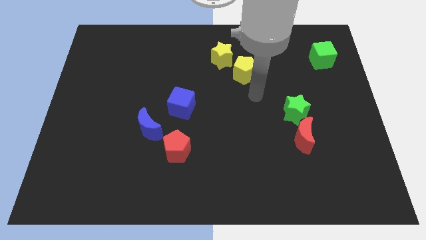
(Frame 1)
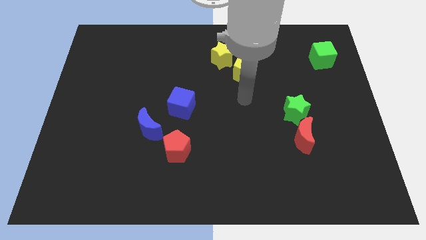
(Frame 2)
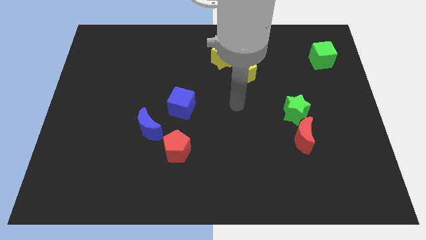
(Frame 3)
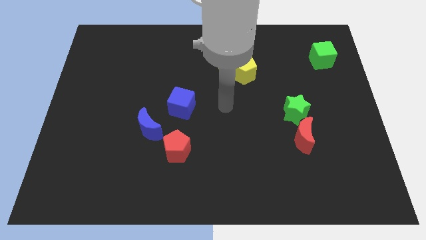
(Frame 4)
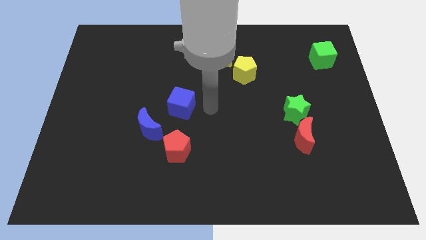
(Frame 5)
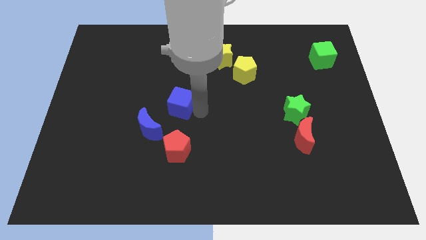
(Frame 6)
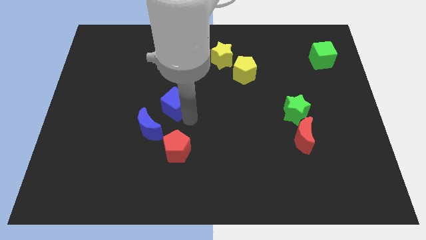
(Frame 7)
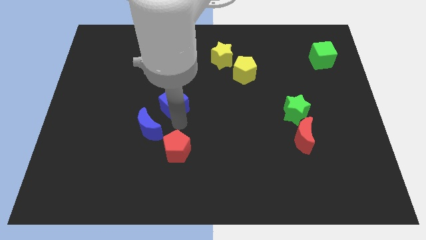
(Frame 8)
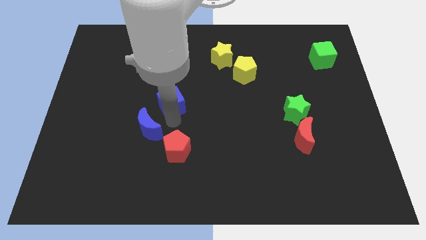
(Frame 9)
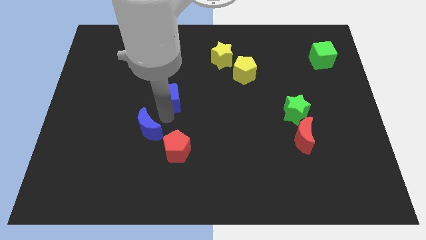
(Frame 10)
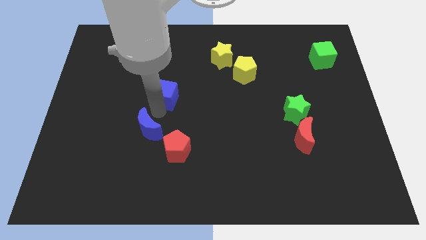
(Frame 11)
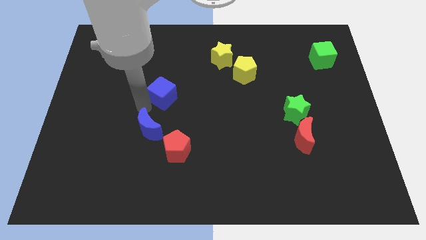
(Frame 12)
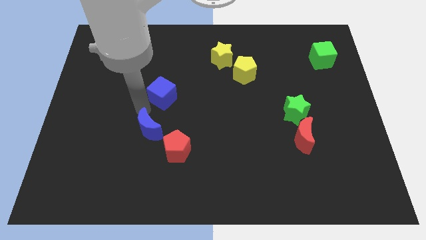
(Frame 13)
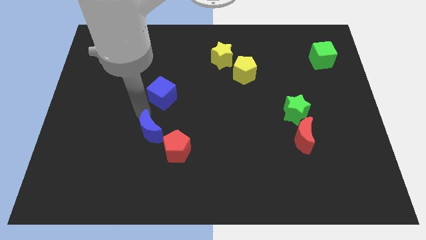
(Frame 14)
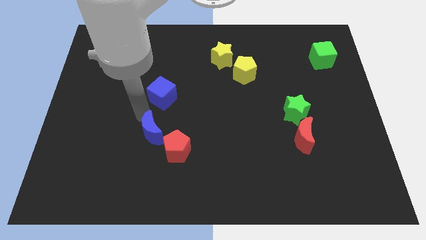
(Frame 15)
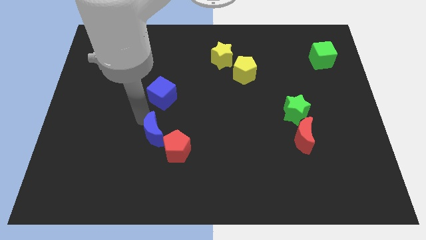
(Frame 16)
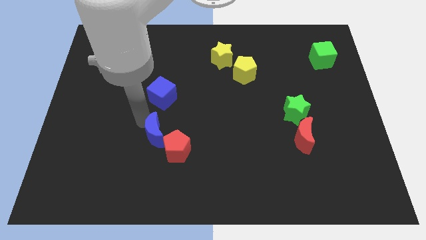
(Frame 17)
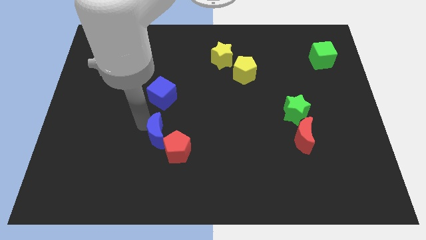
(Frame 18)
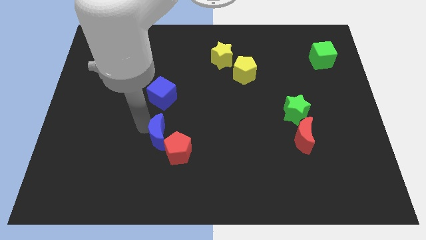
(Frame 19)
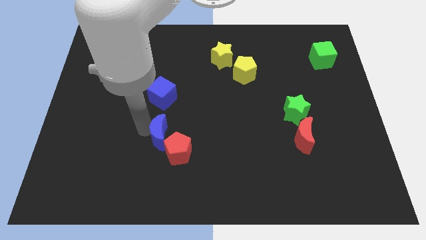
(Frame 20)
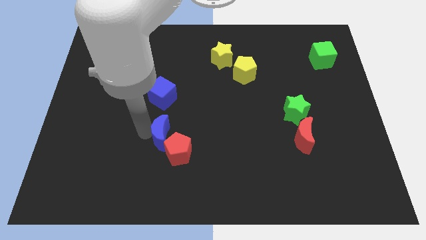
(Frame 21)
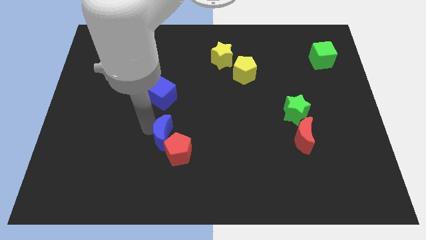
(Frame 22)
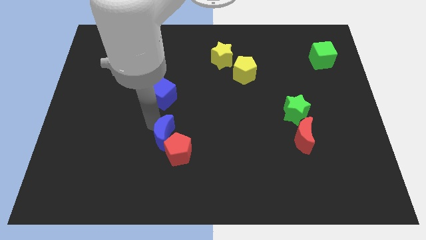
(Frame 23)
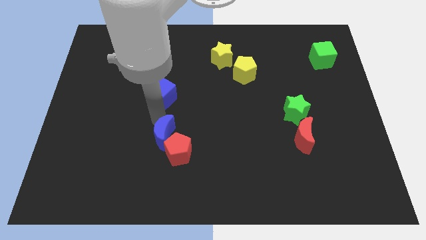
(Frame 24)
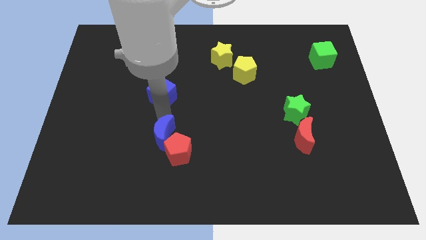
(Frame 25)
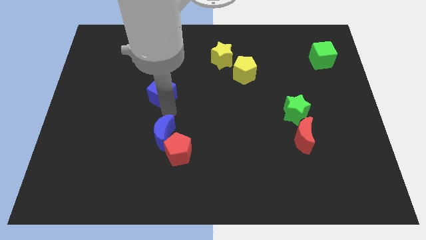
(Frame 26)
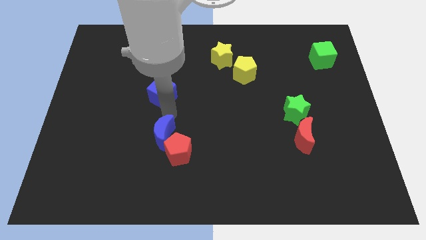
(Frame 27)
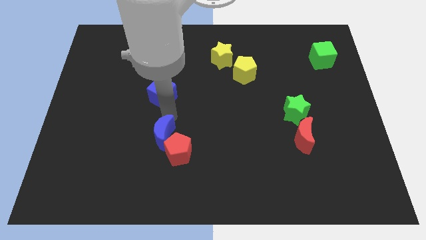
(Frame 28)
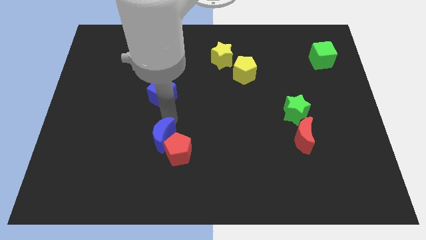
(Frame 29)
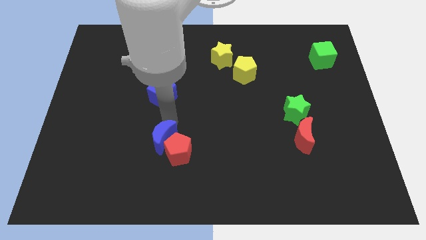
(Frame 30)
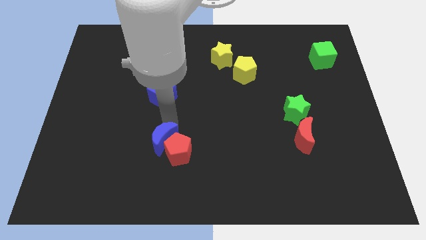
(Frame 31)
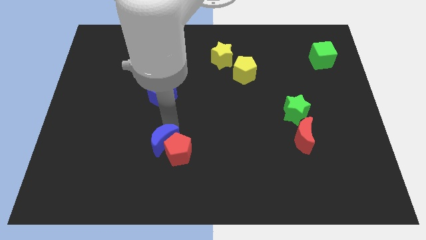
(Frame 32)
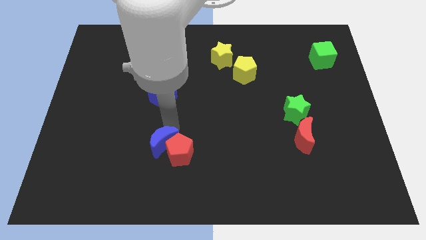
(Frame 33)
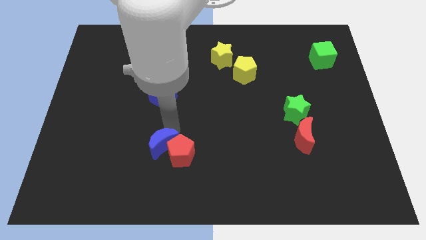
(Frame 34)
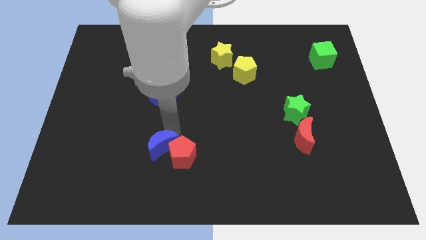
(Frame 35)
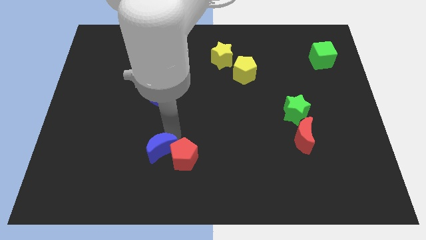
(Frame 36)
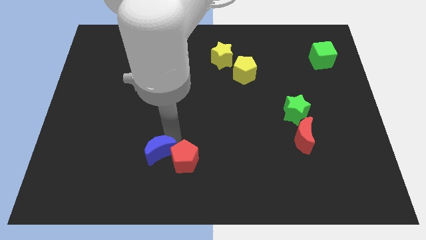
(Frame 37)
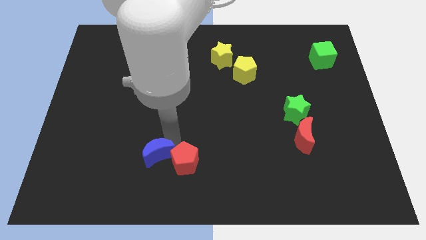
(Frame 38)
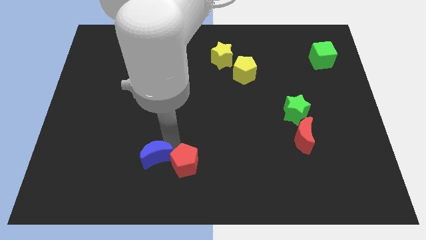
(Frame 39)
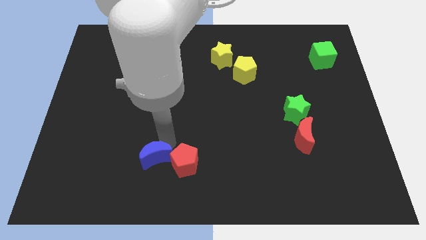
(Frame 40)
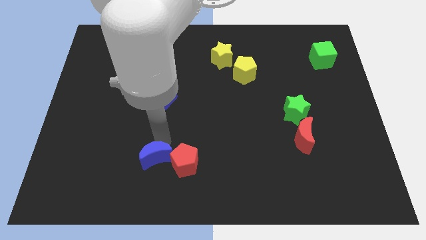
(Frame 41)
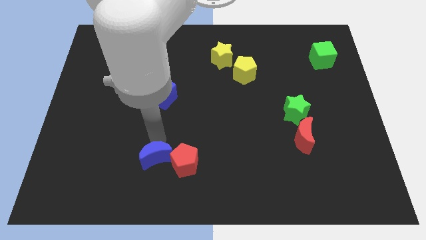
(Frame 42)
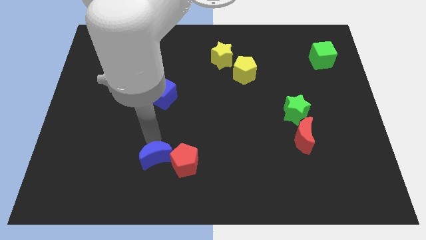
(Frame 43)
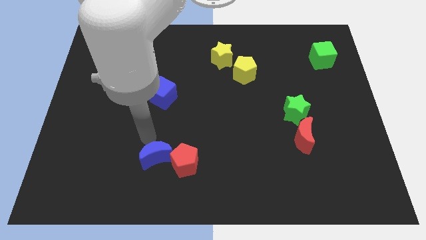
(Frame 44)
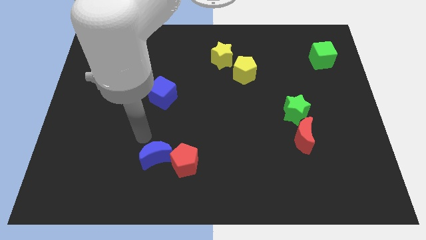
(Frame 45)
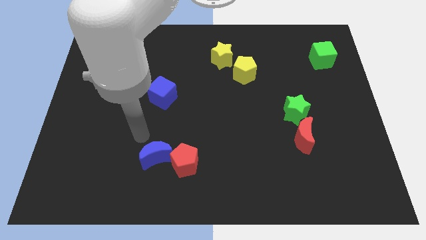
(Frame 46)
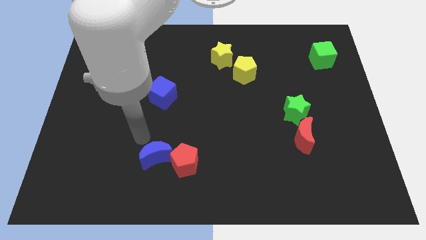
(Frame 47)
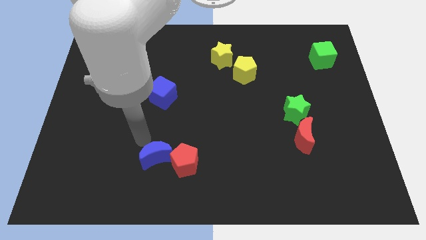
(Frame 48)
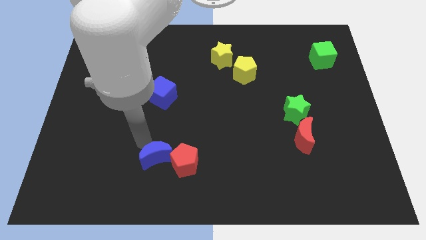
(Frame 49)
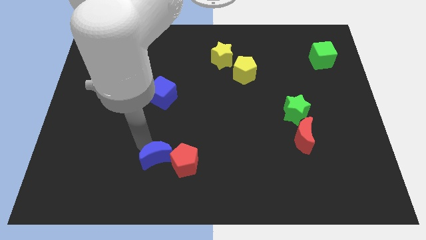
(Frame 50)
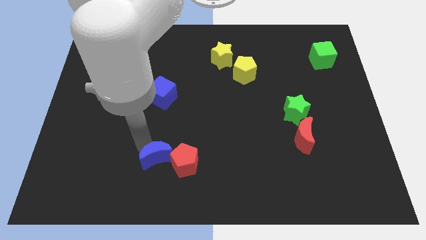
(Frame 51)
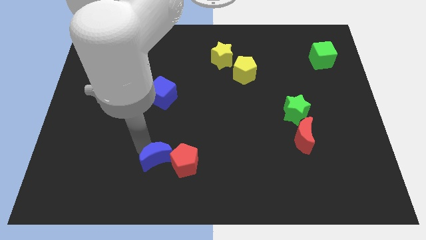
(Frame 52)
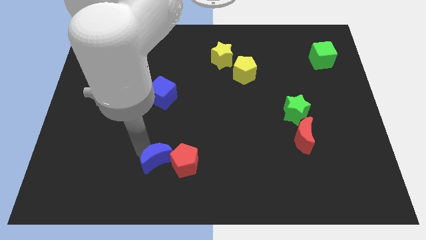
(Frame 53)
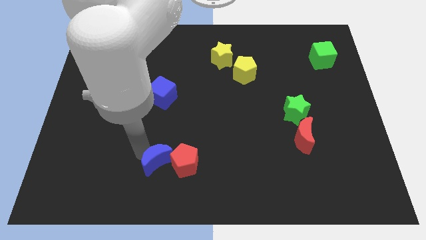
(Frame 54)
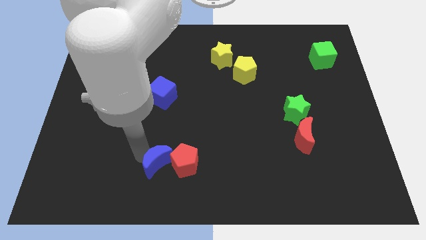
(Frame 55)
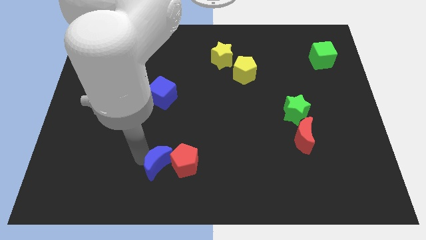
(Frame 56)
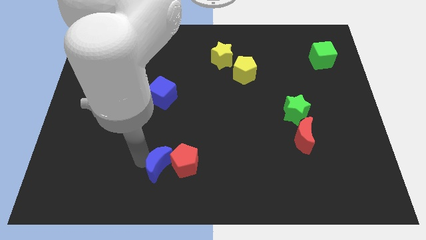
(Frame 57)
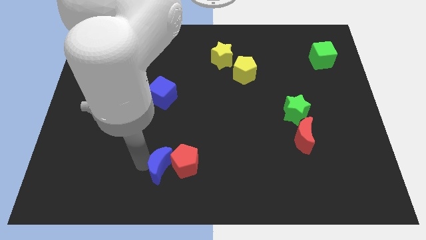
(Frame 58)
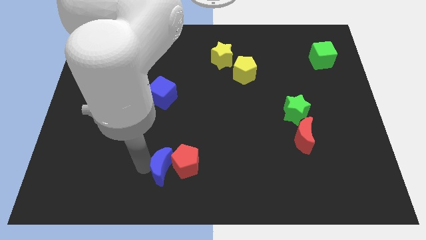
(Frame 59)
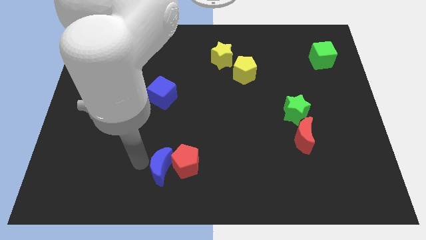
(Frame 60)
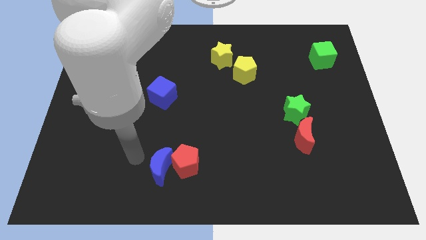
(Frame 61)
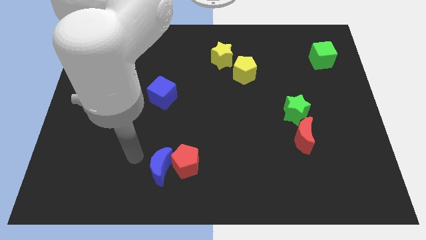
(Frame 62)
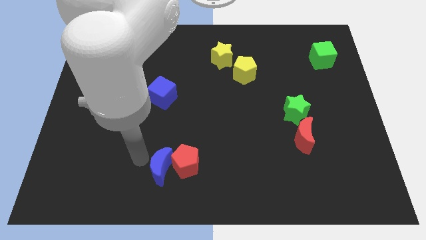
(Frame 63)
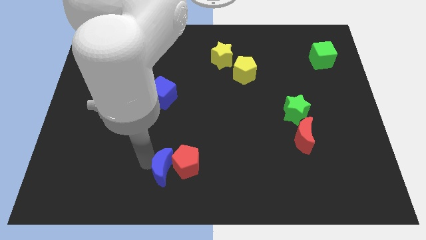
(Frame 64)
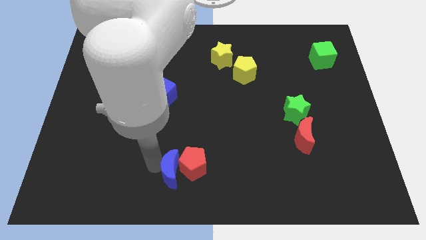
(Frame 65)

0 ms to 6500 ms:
move the blue moon to the bottom
